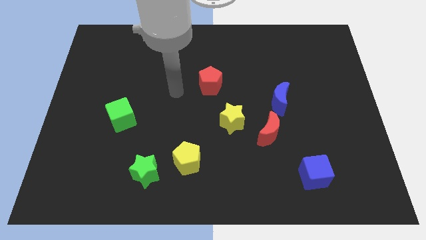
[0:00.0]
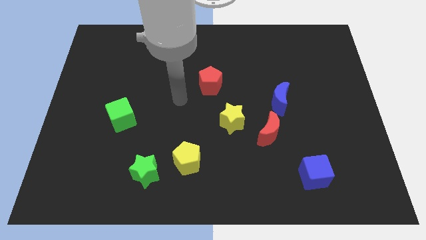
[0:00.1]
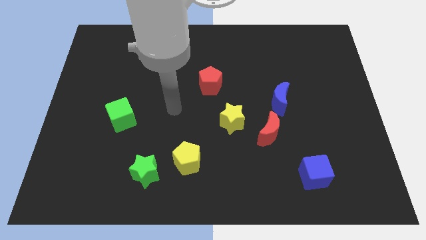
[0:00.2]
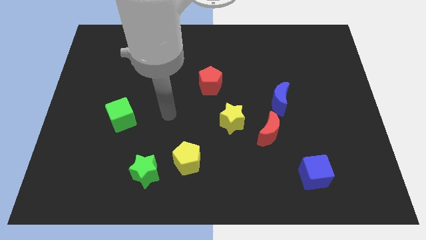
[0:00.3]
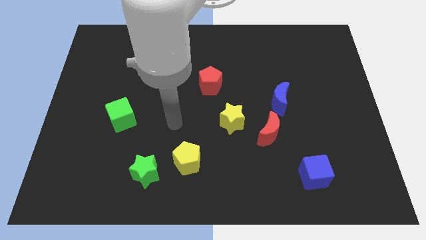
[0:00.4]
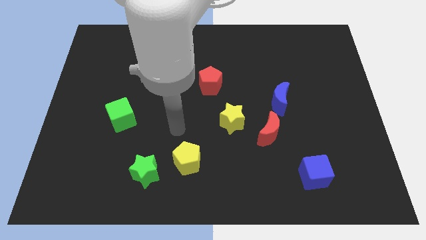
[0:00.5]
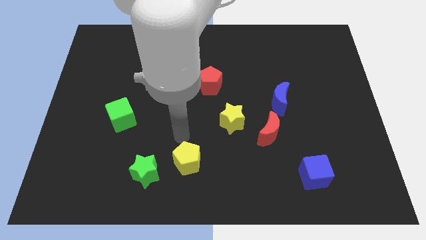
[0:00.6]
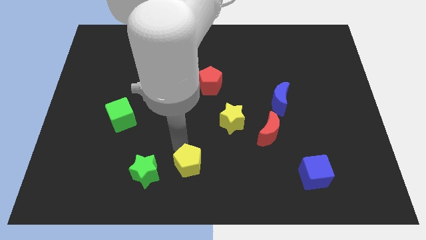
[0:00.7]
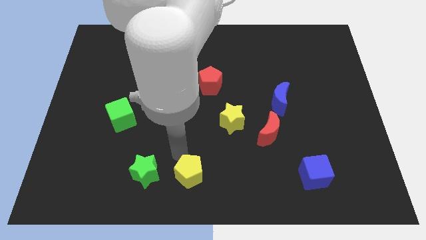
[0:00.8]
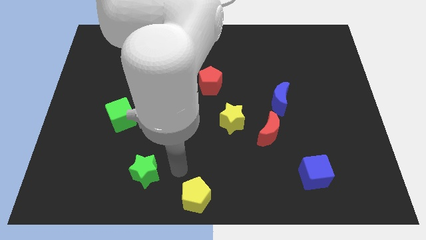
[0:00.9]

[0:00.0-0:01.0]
move the green star away from the yellow pentagon

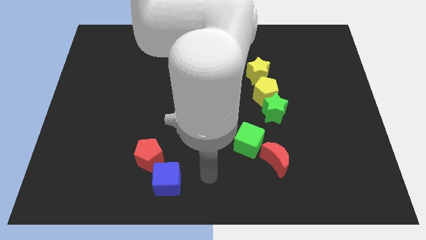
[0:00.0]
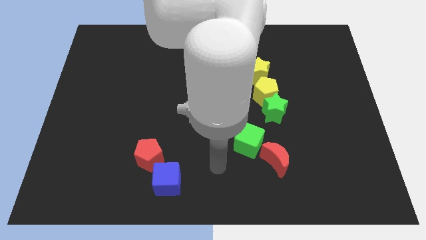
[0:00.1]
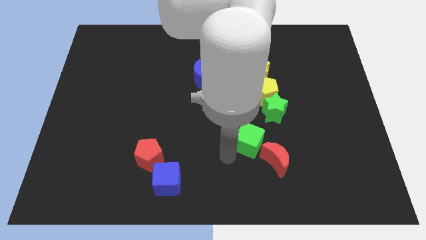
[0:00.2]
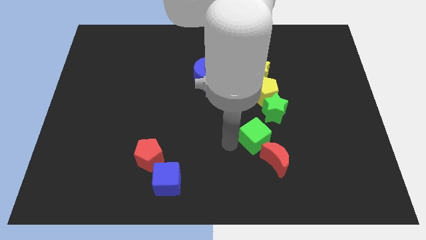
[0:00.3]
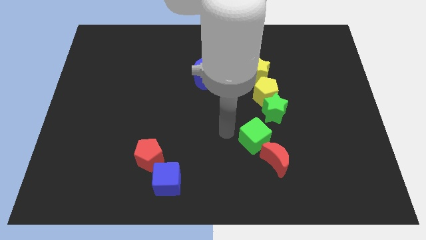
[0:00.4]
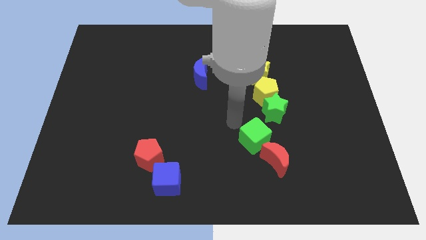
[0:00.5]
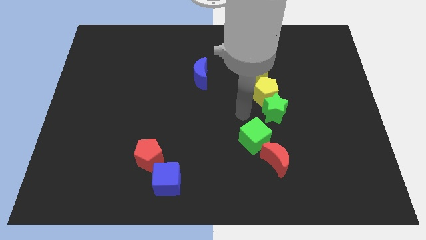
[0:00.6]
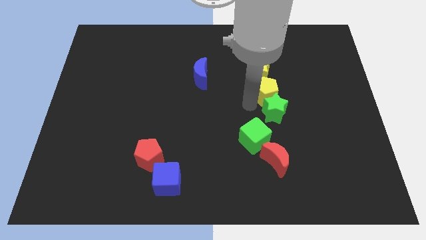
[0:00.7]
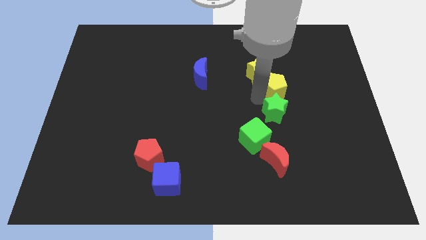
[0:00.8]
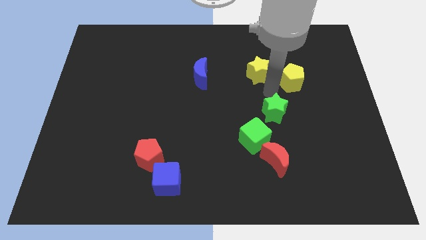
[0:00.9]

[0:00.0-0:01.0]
pull the green star apart from the yellow pentagon

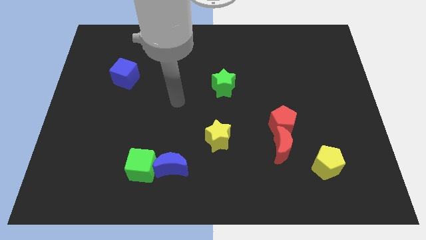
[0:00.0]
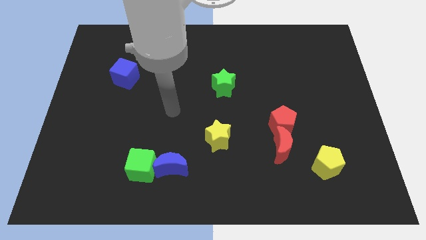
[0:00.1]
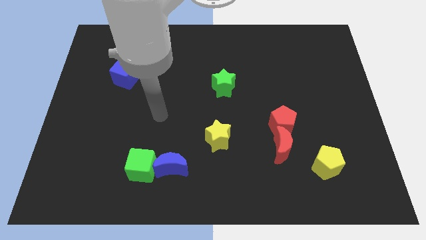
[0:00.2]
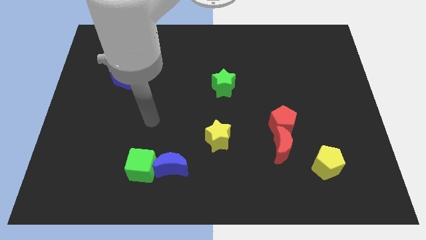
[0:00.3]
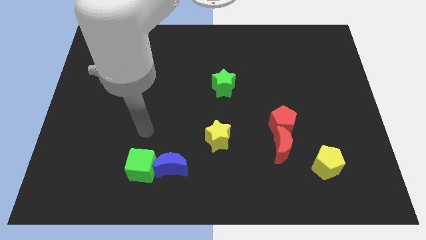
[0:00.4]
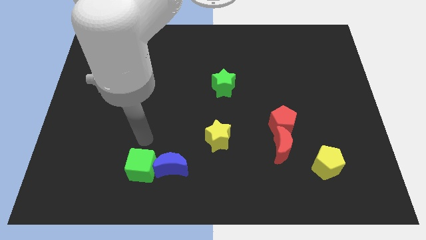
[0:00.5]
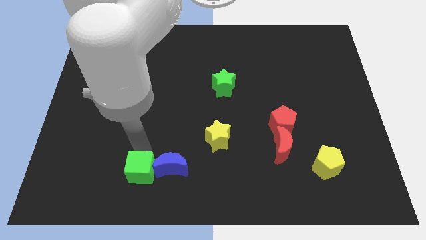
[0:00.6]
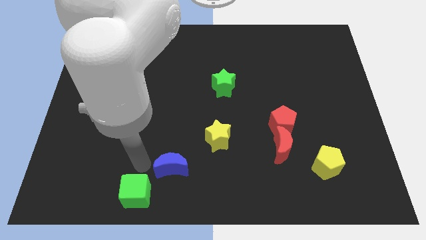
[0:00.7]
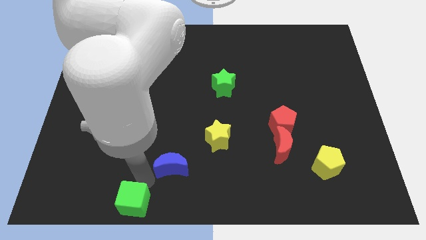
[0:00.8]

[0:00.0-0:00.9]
pull the blue moon apart from the green cube

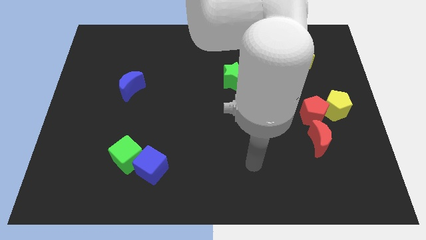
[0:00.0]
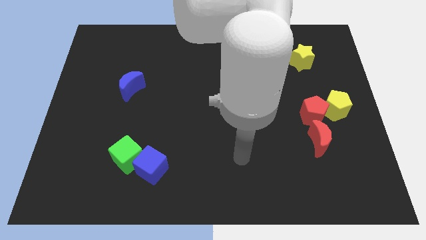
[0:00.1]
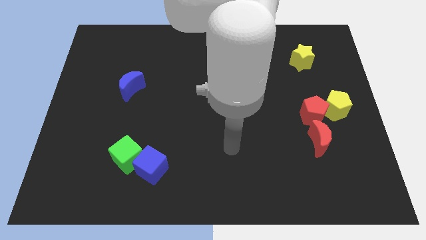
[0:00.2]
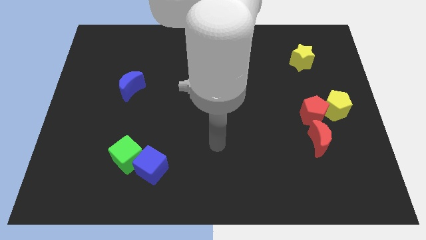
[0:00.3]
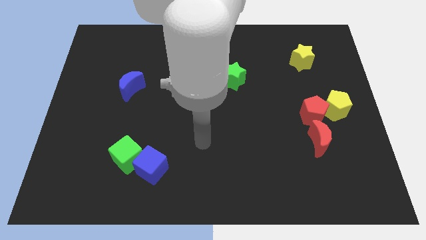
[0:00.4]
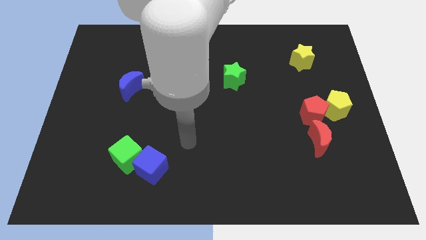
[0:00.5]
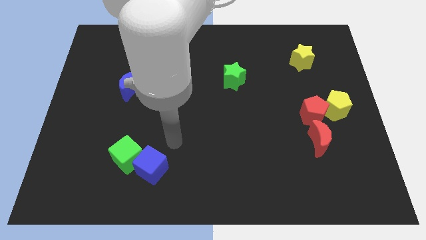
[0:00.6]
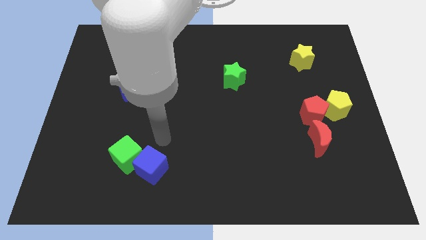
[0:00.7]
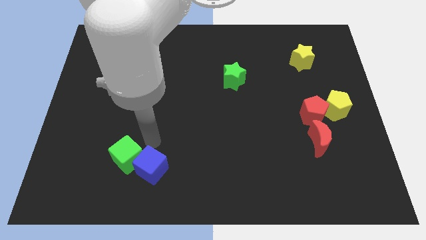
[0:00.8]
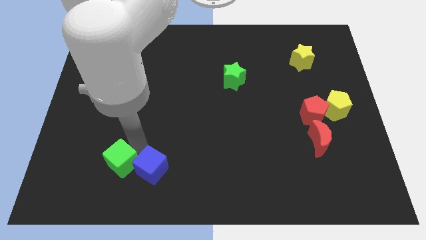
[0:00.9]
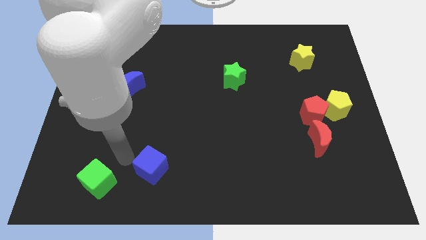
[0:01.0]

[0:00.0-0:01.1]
pull the blue cube apart from the green cube

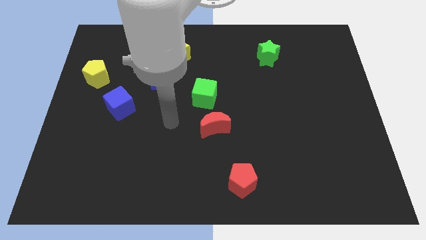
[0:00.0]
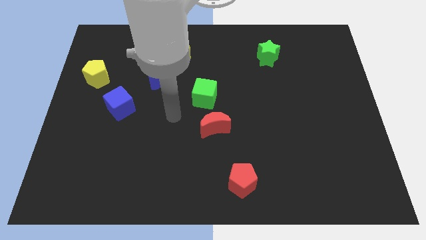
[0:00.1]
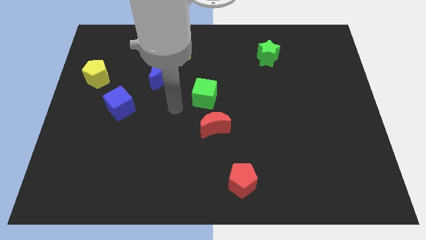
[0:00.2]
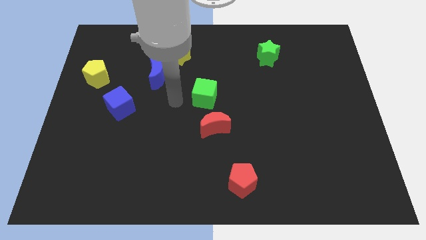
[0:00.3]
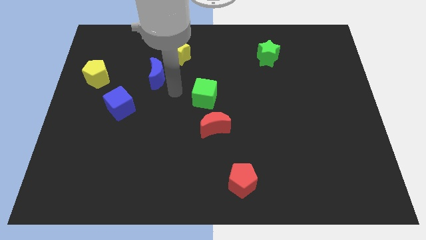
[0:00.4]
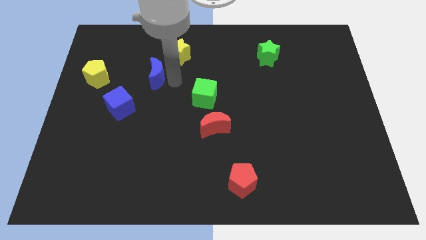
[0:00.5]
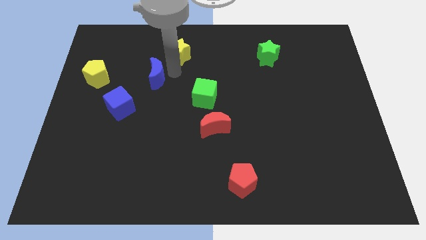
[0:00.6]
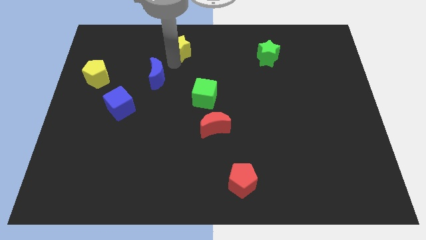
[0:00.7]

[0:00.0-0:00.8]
separate the blue moon from the yellow star

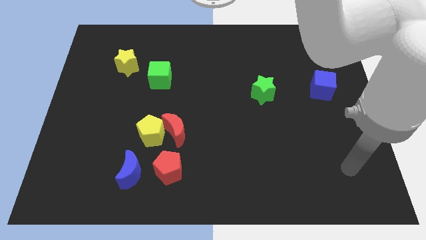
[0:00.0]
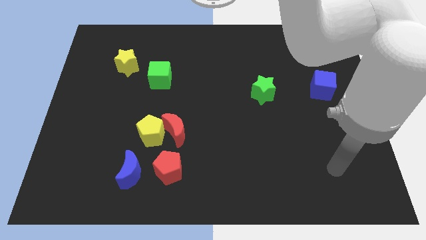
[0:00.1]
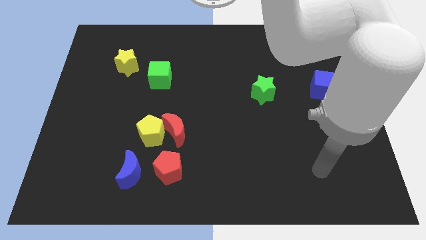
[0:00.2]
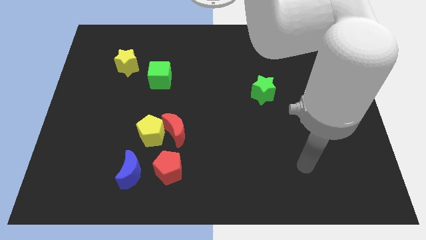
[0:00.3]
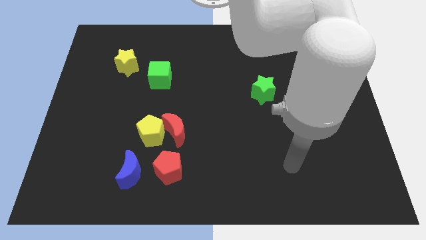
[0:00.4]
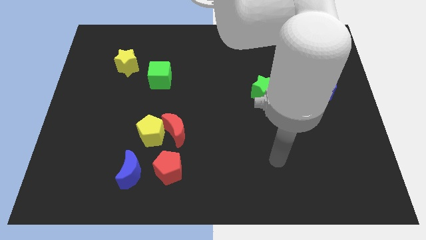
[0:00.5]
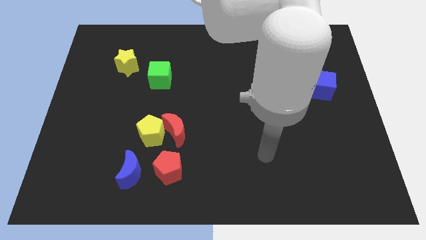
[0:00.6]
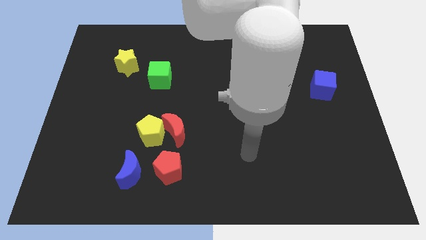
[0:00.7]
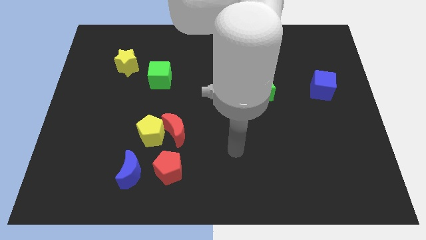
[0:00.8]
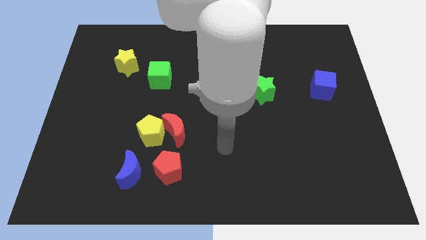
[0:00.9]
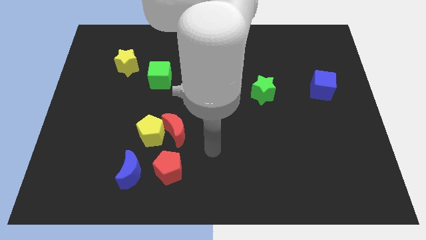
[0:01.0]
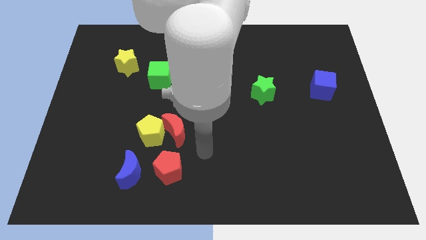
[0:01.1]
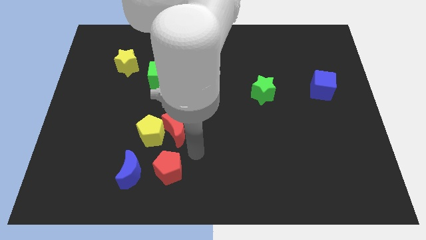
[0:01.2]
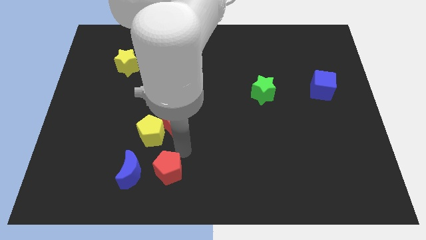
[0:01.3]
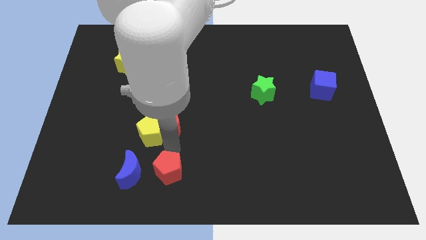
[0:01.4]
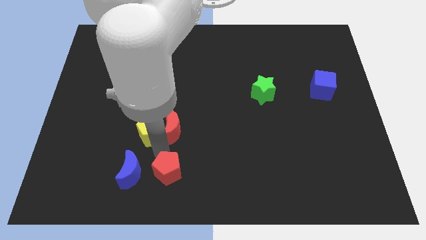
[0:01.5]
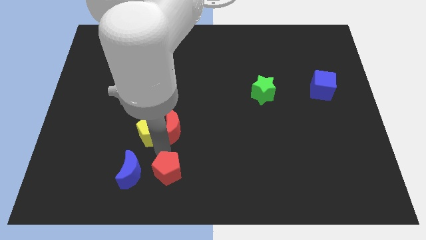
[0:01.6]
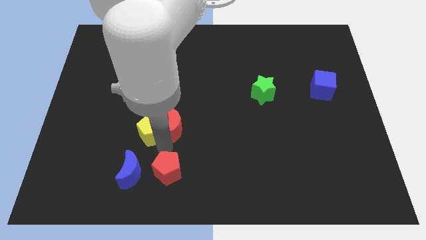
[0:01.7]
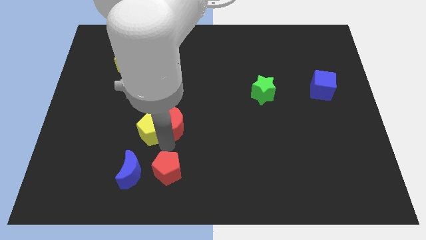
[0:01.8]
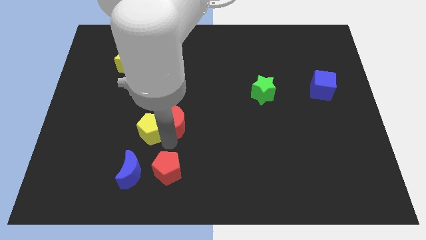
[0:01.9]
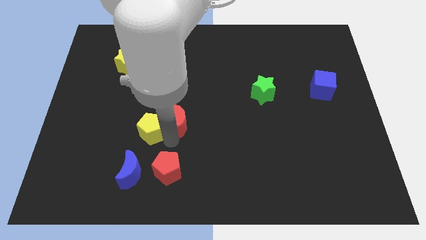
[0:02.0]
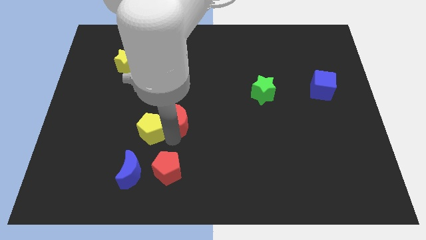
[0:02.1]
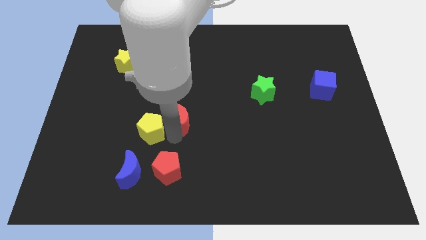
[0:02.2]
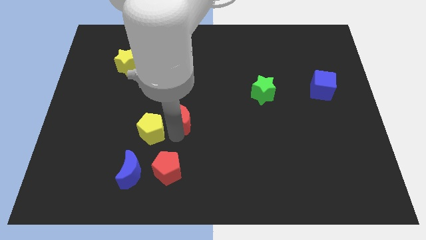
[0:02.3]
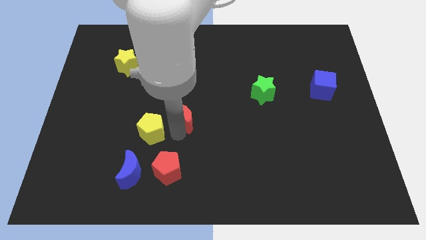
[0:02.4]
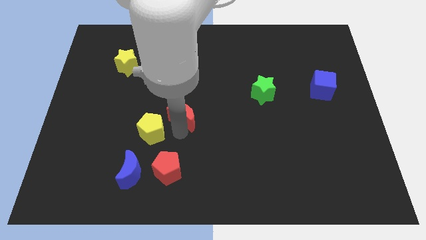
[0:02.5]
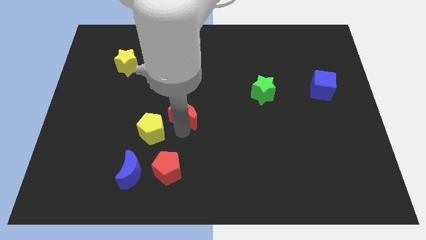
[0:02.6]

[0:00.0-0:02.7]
separate the red moon from the yellow pentagon and red pentagon

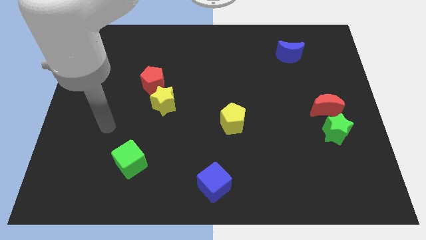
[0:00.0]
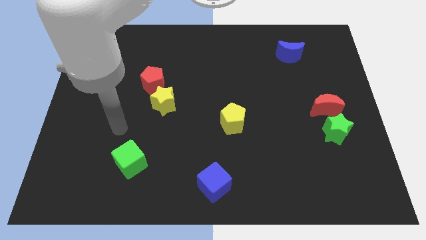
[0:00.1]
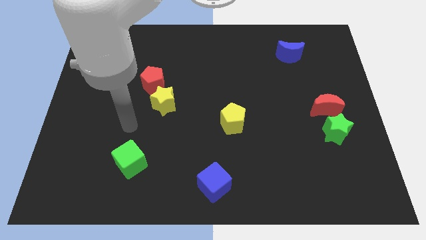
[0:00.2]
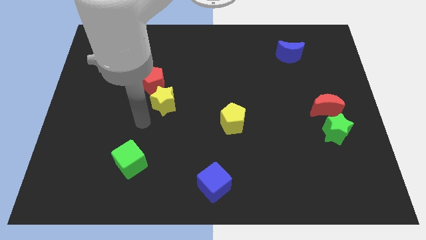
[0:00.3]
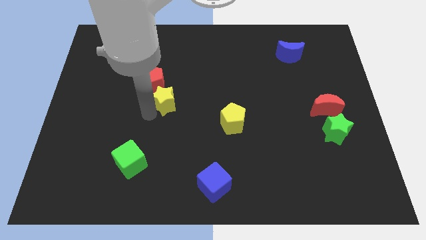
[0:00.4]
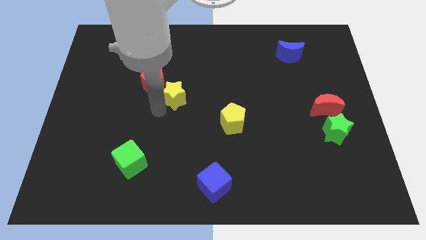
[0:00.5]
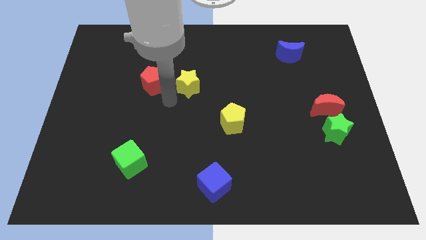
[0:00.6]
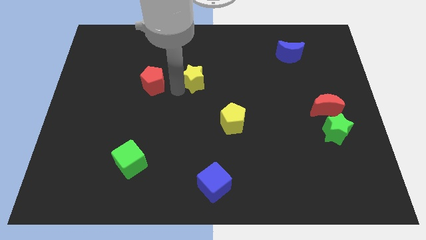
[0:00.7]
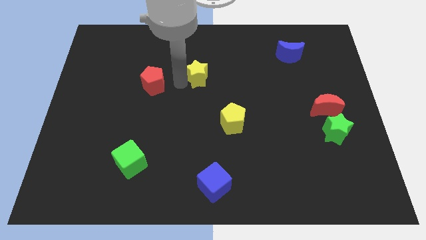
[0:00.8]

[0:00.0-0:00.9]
move the red pentagon away from the yellow star

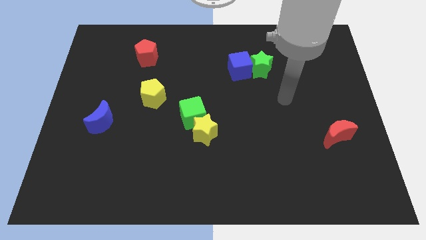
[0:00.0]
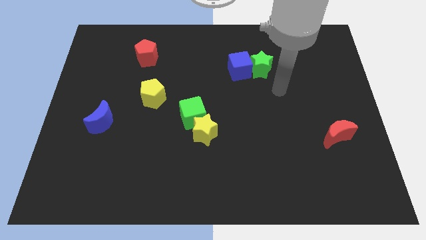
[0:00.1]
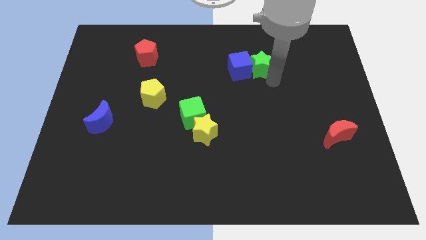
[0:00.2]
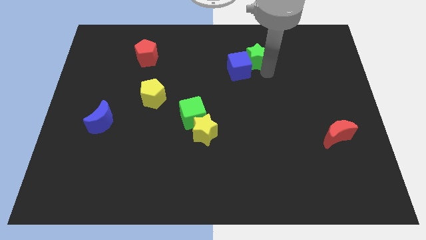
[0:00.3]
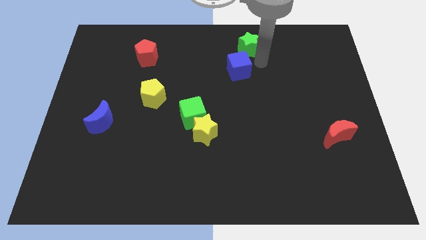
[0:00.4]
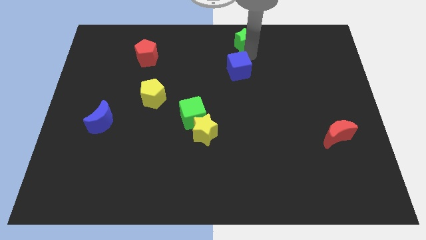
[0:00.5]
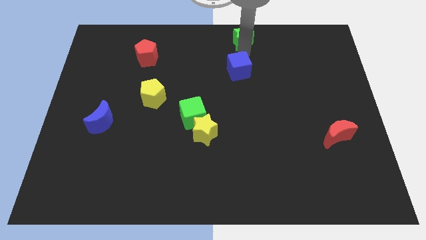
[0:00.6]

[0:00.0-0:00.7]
separate the blue cube from the green star

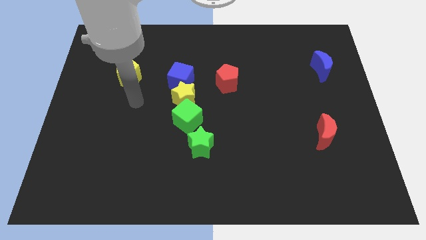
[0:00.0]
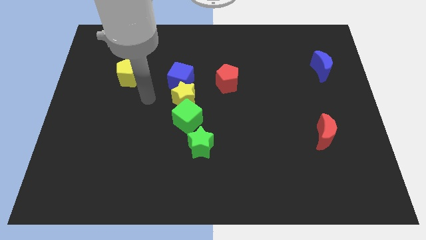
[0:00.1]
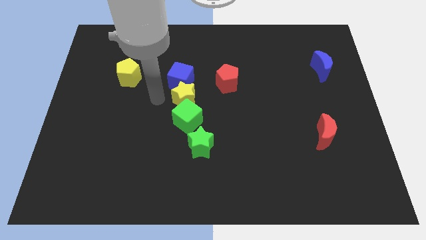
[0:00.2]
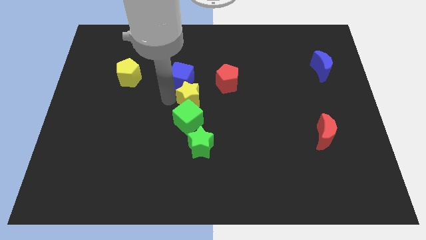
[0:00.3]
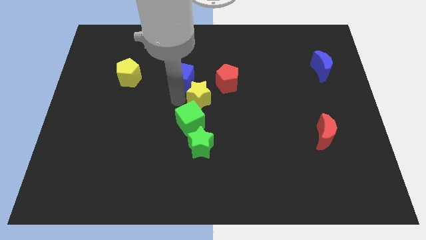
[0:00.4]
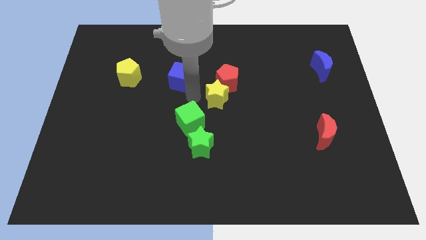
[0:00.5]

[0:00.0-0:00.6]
move the blue cube away from the yellow star
